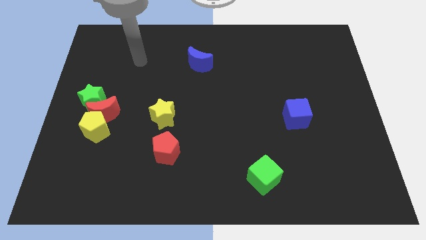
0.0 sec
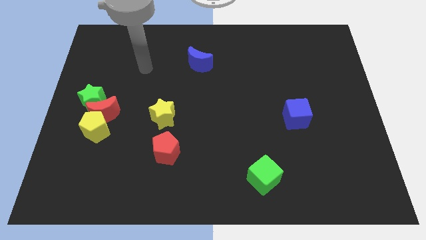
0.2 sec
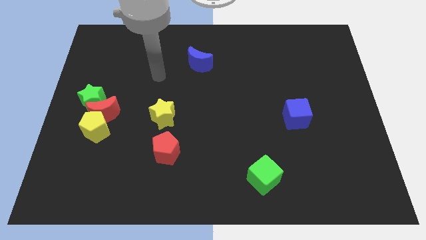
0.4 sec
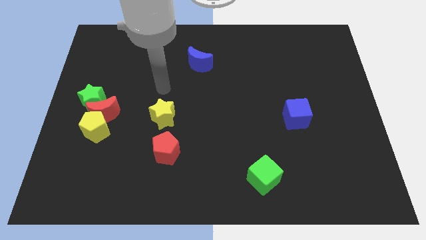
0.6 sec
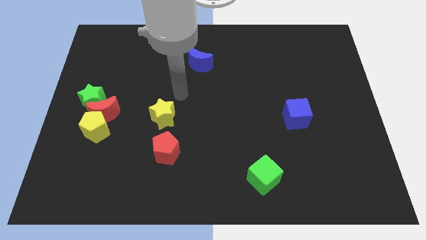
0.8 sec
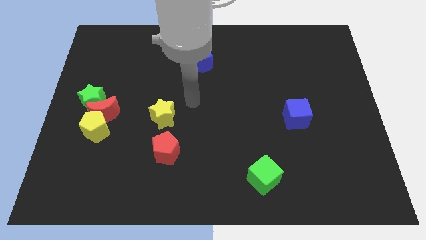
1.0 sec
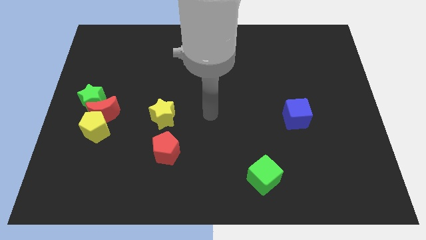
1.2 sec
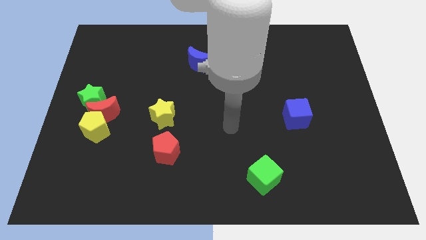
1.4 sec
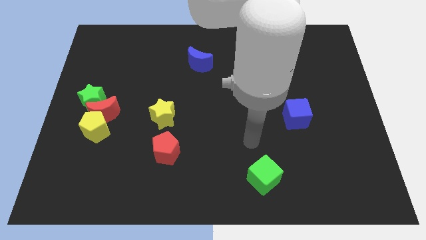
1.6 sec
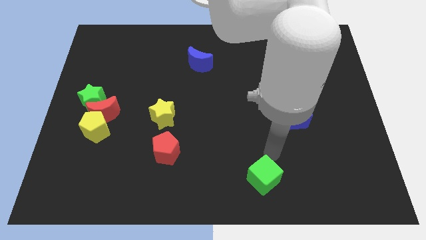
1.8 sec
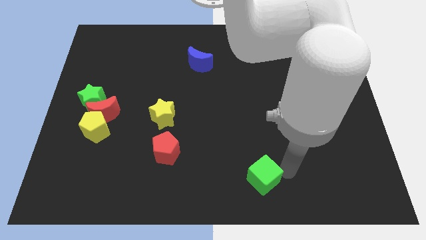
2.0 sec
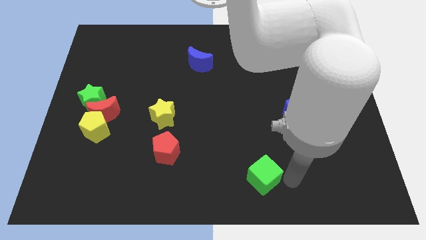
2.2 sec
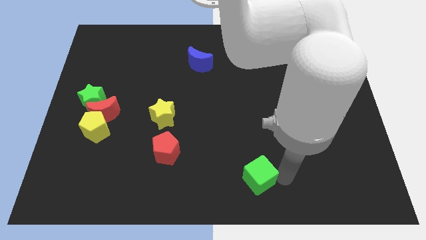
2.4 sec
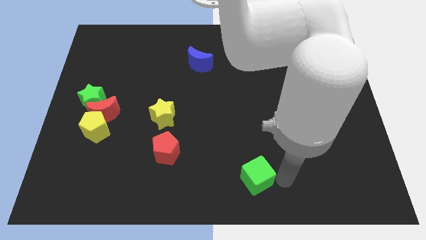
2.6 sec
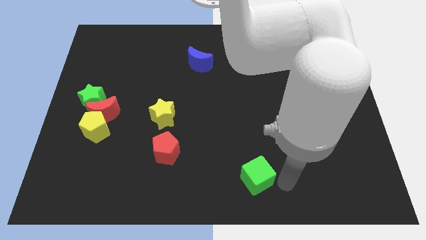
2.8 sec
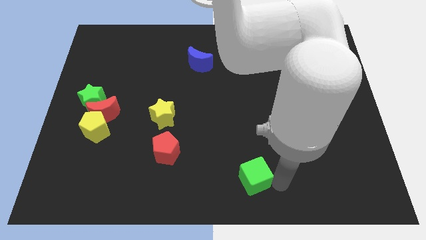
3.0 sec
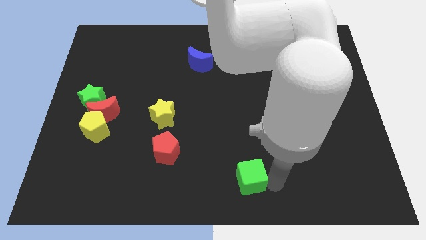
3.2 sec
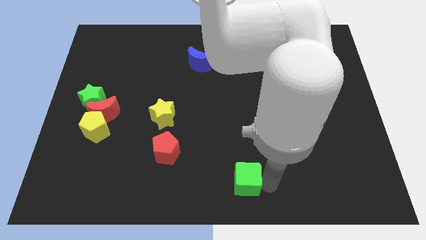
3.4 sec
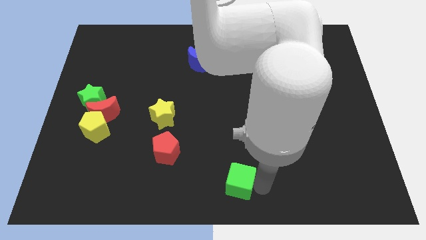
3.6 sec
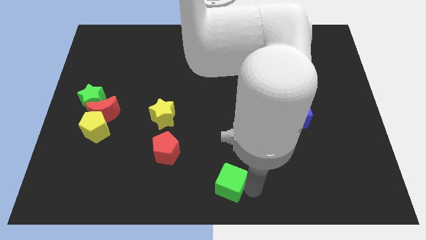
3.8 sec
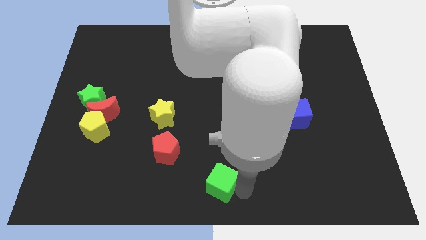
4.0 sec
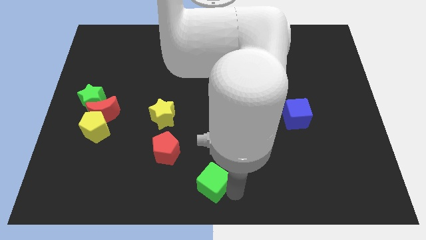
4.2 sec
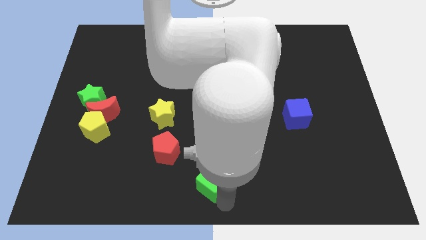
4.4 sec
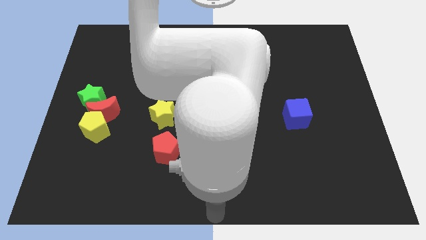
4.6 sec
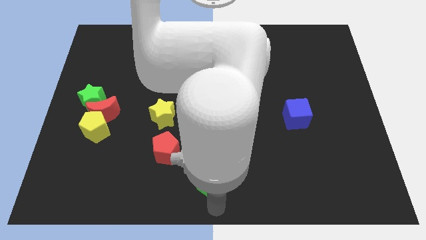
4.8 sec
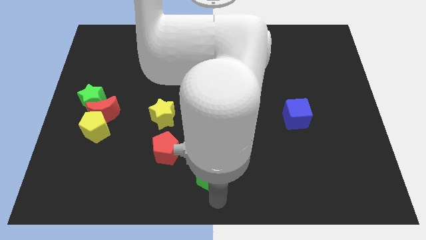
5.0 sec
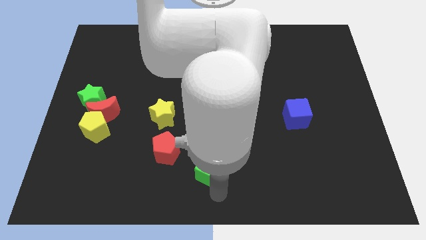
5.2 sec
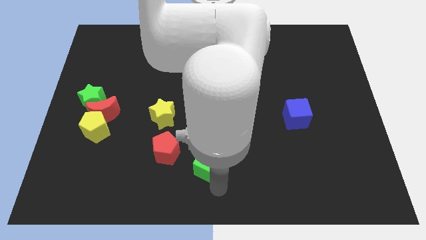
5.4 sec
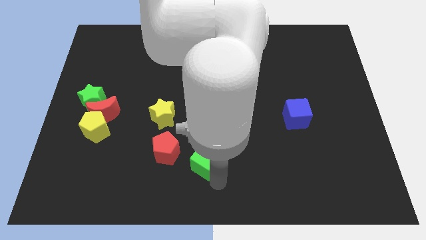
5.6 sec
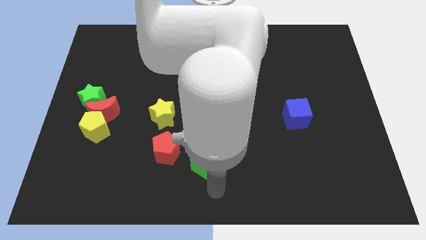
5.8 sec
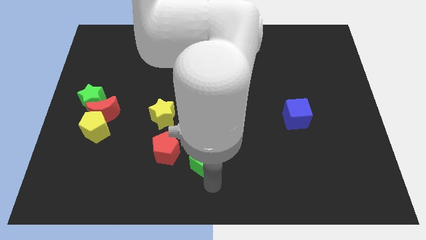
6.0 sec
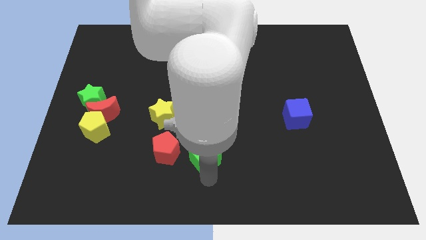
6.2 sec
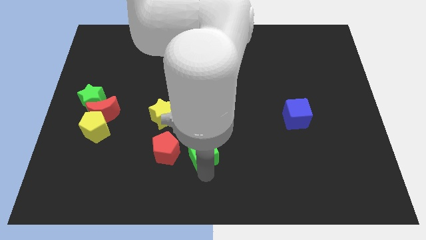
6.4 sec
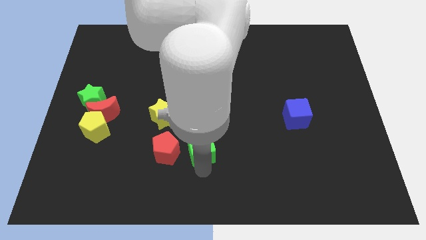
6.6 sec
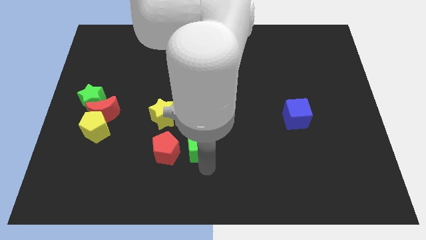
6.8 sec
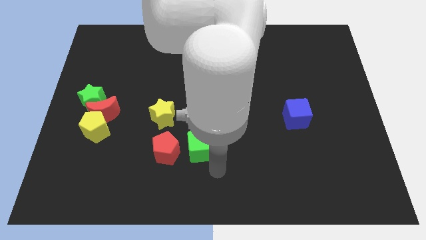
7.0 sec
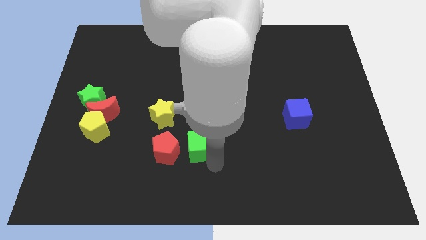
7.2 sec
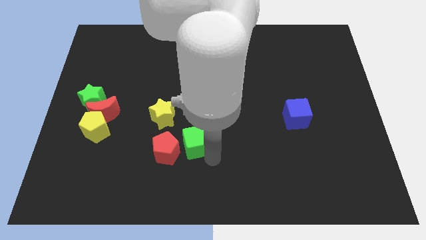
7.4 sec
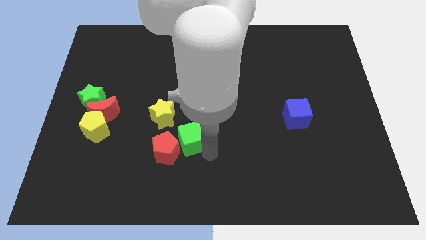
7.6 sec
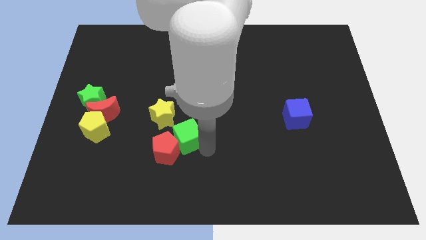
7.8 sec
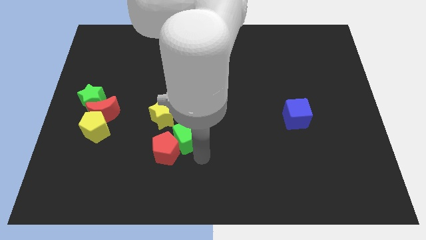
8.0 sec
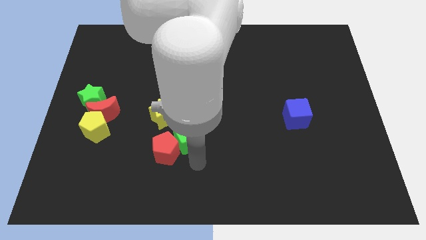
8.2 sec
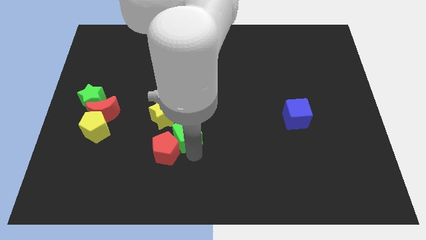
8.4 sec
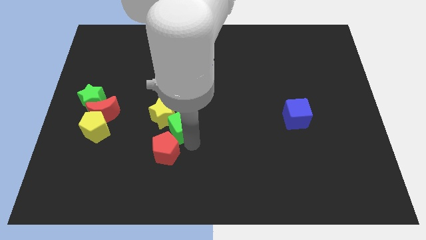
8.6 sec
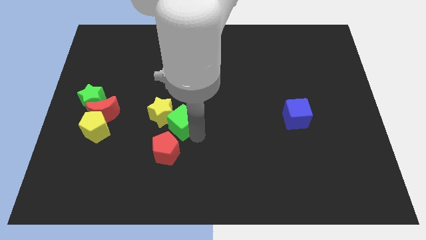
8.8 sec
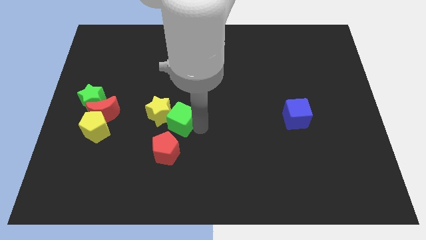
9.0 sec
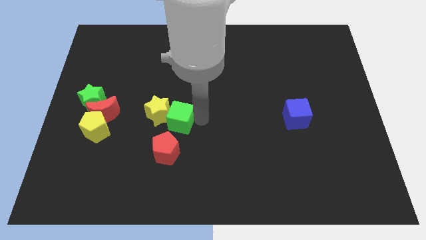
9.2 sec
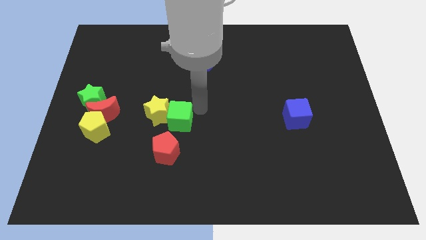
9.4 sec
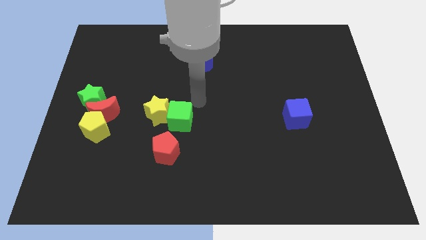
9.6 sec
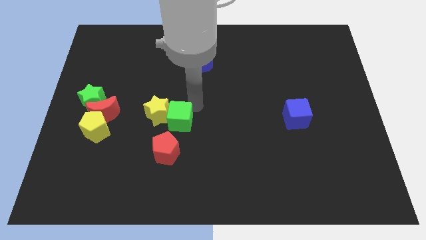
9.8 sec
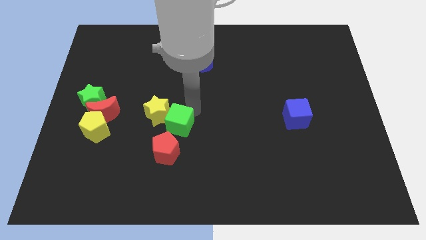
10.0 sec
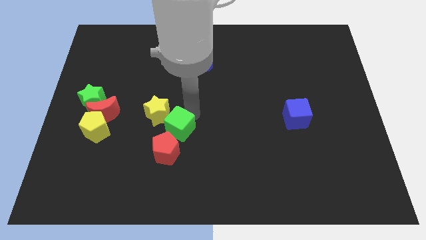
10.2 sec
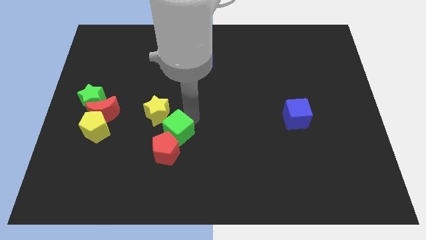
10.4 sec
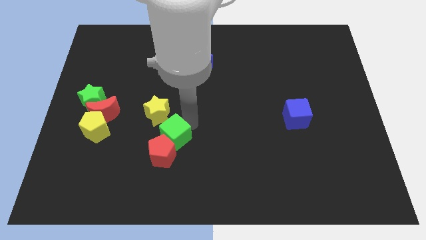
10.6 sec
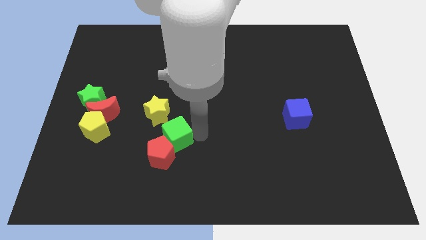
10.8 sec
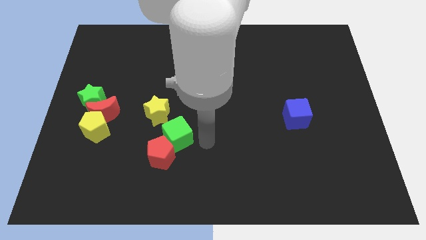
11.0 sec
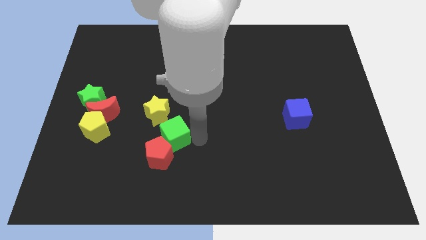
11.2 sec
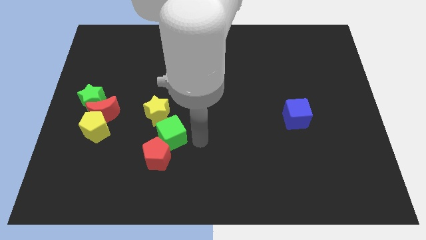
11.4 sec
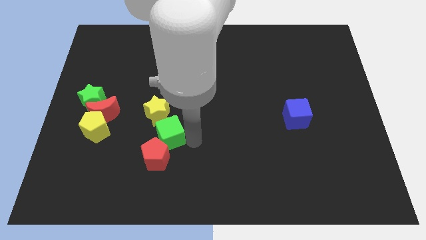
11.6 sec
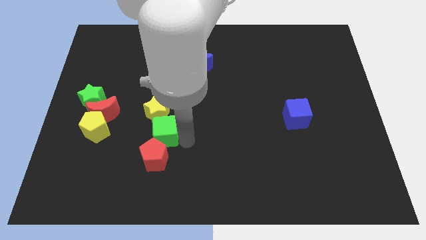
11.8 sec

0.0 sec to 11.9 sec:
put the green cube to the right side of the yellow pentagon

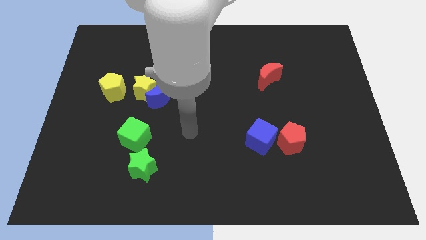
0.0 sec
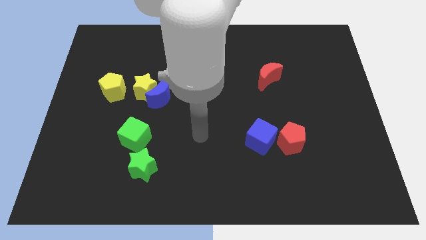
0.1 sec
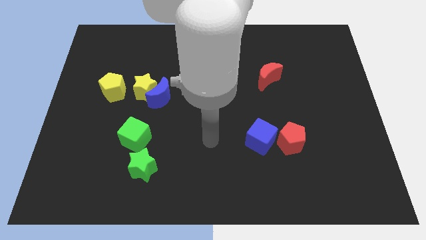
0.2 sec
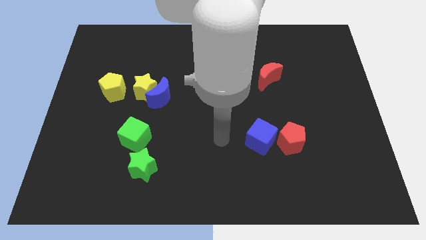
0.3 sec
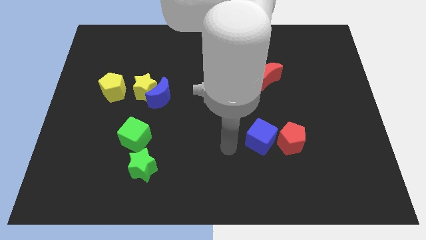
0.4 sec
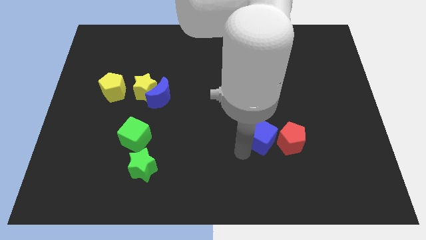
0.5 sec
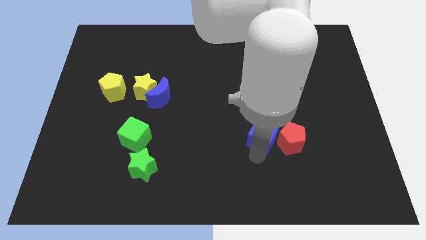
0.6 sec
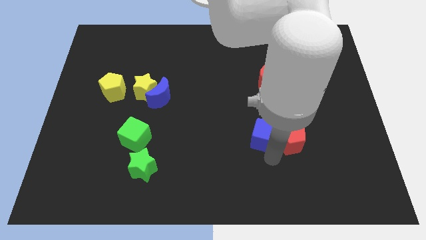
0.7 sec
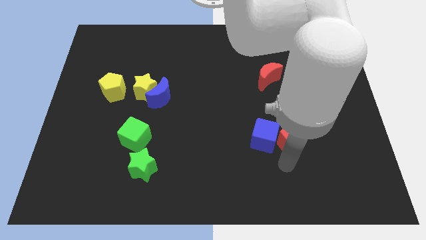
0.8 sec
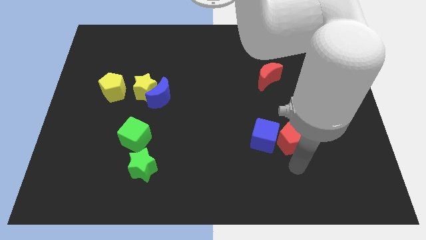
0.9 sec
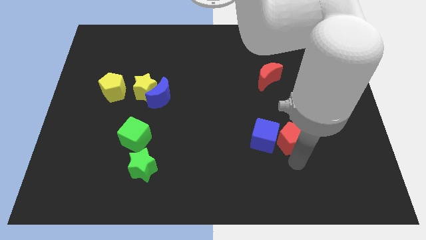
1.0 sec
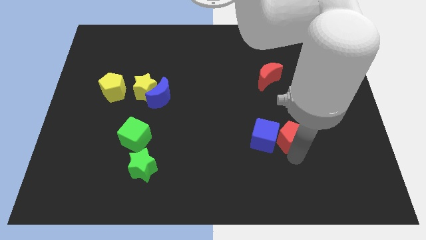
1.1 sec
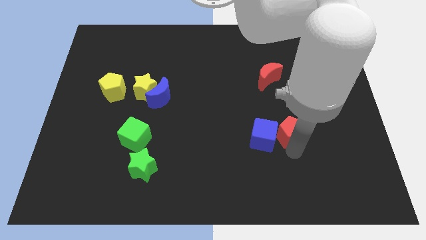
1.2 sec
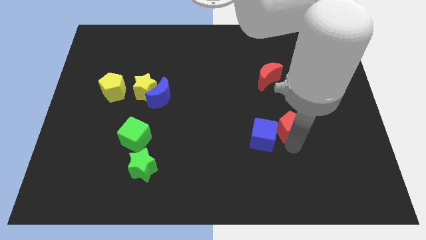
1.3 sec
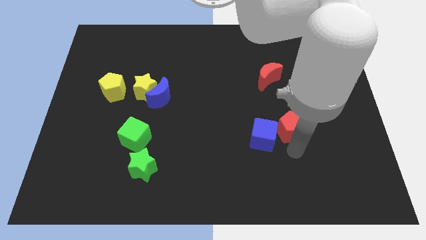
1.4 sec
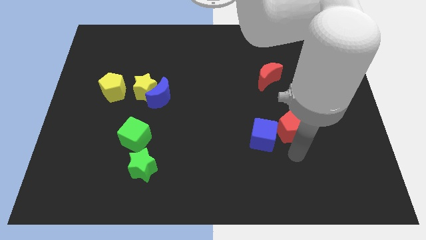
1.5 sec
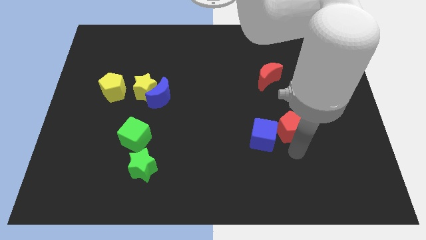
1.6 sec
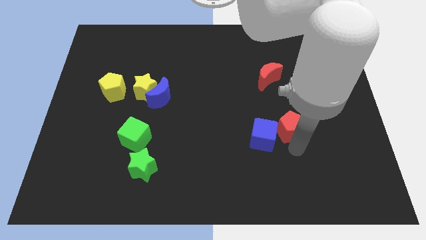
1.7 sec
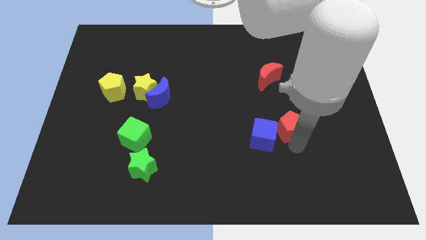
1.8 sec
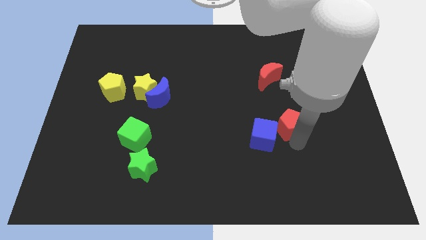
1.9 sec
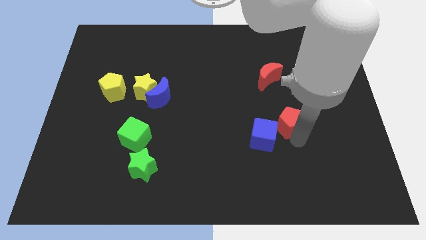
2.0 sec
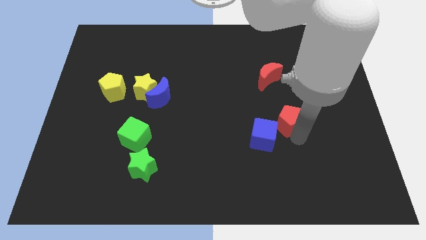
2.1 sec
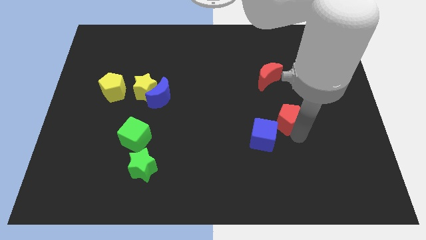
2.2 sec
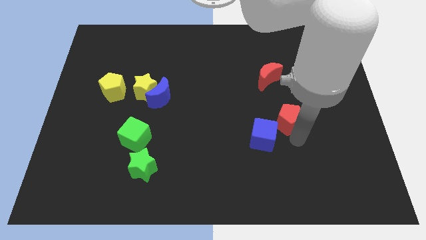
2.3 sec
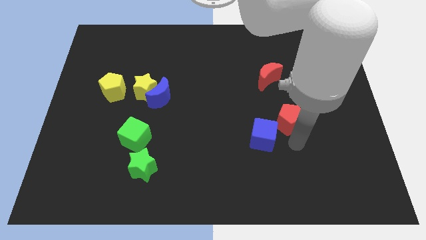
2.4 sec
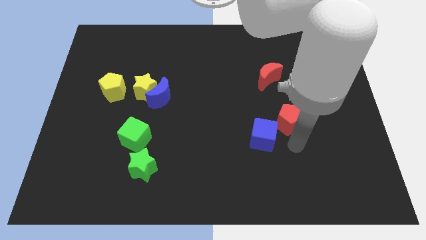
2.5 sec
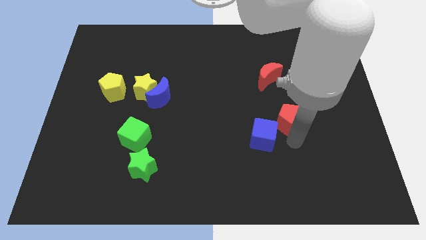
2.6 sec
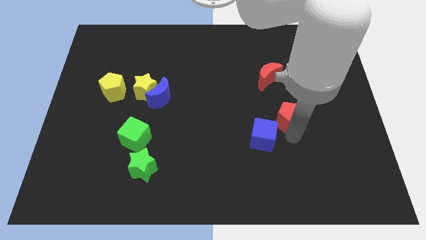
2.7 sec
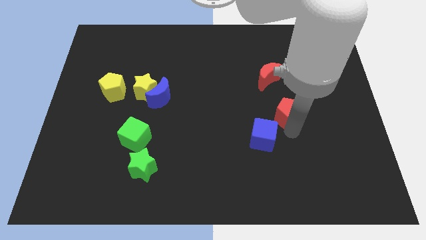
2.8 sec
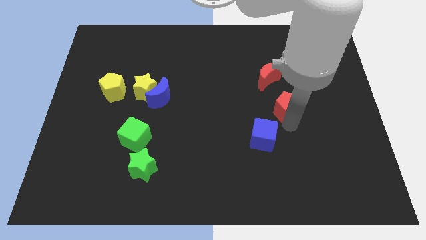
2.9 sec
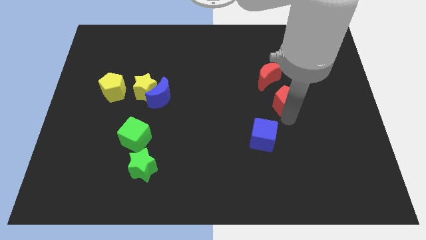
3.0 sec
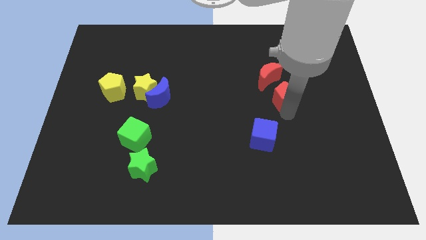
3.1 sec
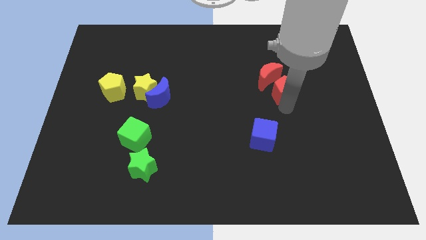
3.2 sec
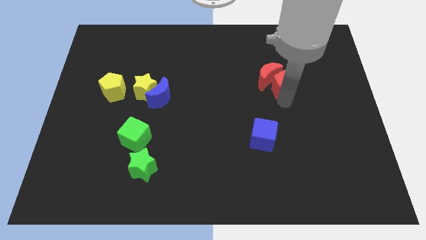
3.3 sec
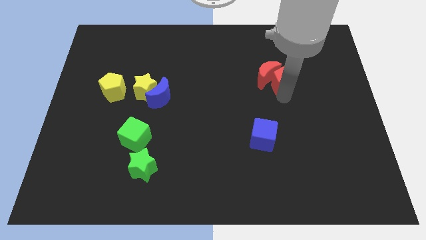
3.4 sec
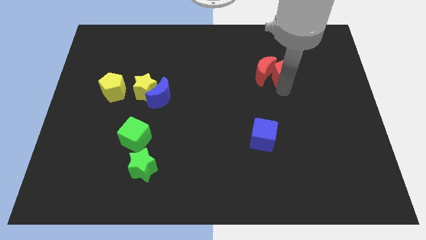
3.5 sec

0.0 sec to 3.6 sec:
push the red pentagon diagonally up and to the right of the red moon
